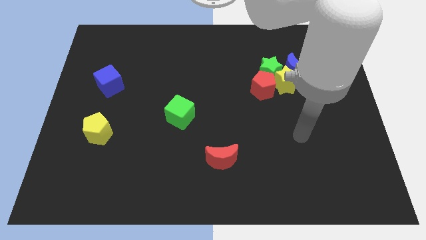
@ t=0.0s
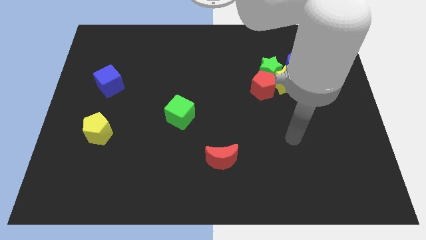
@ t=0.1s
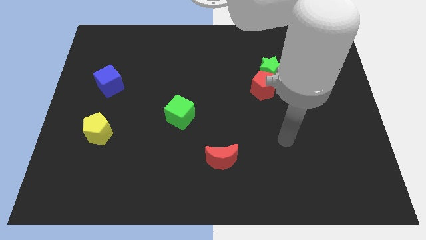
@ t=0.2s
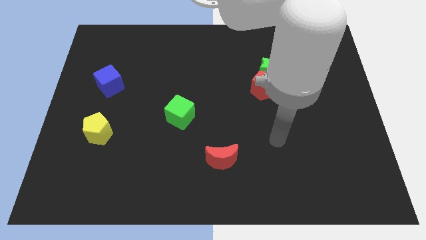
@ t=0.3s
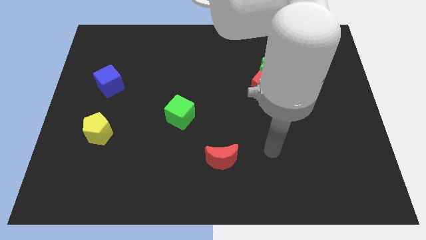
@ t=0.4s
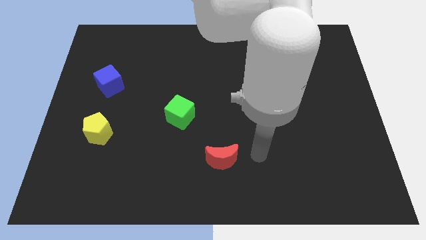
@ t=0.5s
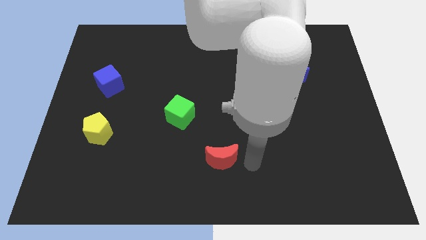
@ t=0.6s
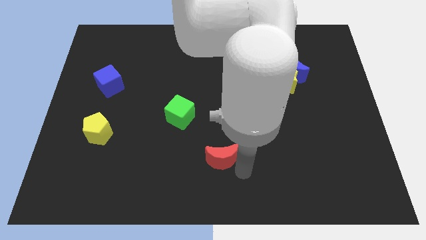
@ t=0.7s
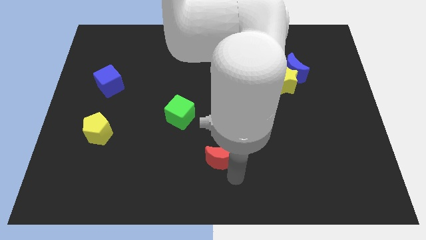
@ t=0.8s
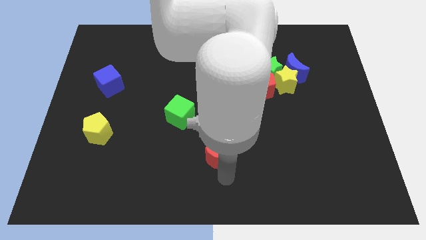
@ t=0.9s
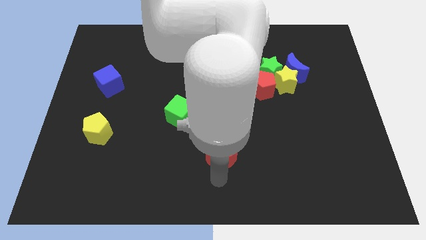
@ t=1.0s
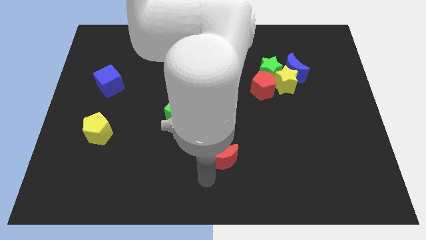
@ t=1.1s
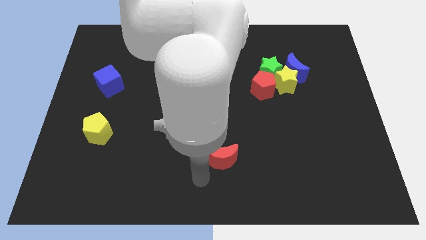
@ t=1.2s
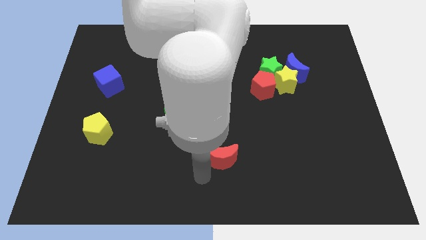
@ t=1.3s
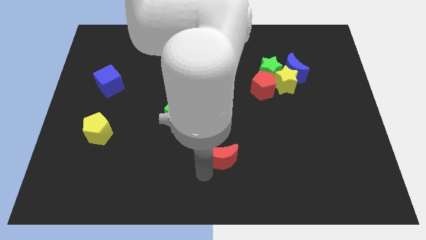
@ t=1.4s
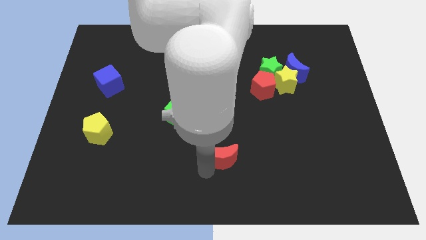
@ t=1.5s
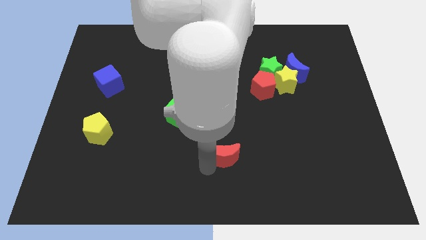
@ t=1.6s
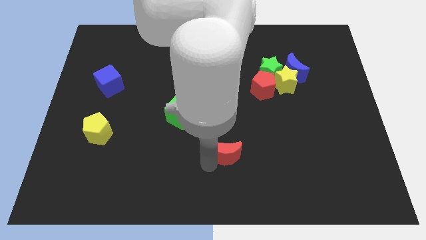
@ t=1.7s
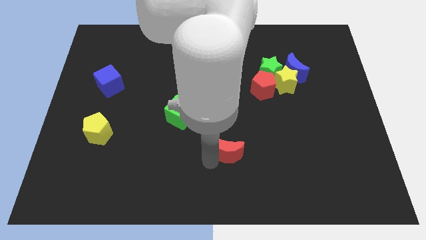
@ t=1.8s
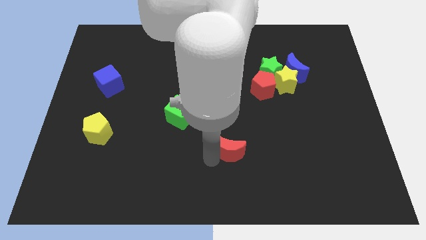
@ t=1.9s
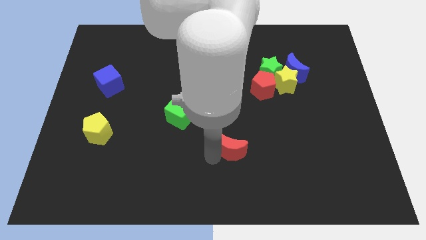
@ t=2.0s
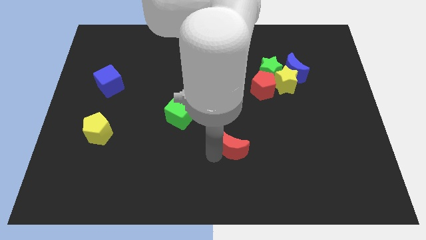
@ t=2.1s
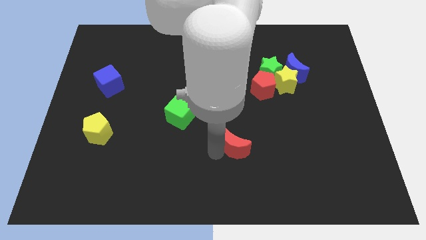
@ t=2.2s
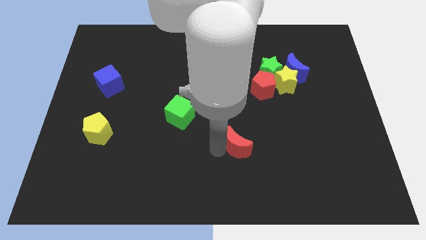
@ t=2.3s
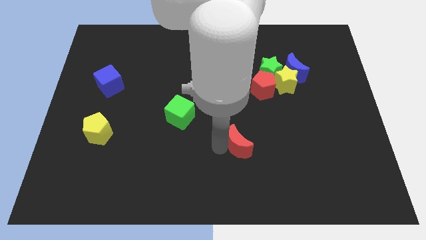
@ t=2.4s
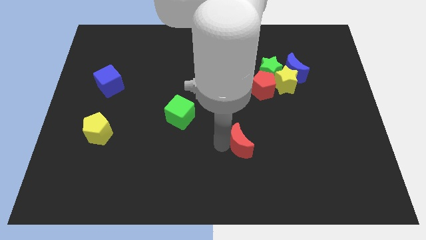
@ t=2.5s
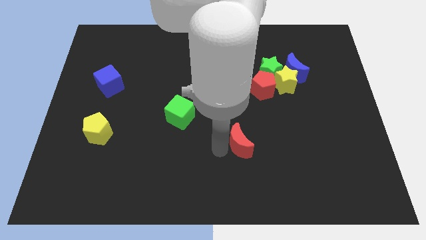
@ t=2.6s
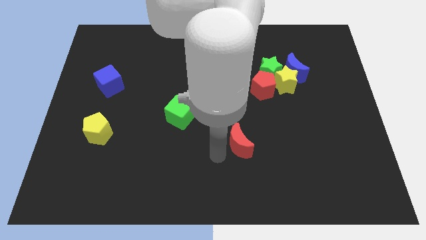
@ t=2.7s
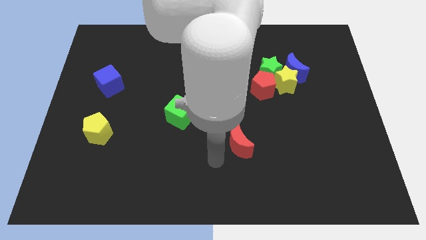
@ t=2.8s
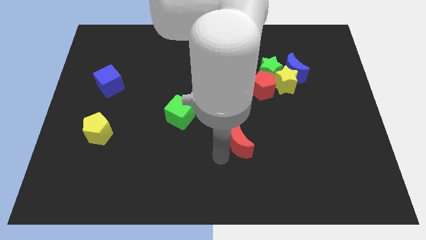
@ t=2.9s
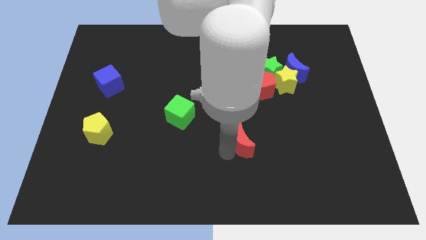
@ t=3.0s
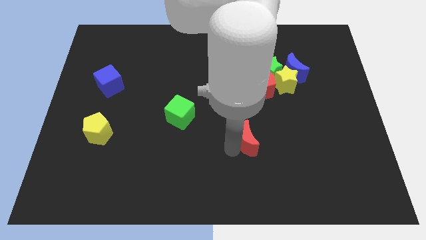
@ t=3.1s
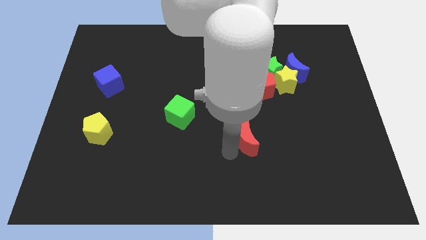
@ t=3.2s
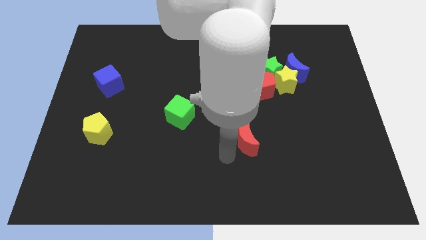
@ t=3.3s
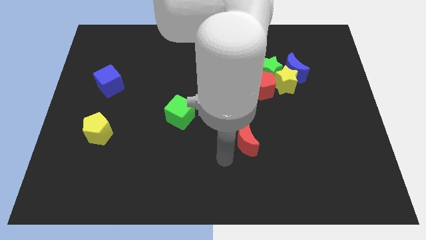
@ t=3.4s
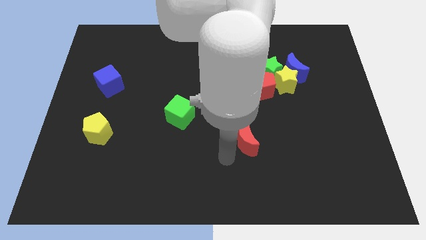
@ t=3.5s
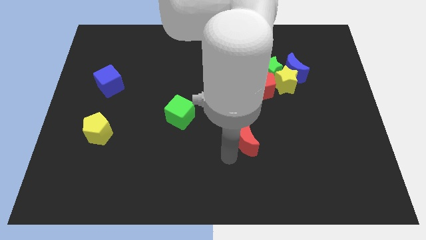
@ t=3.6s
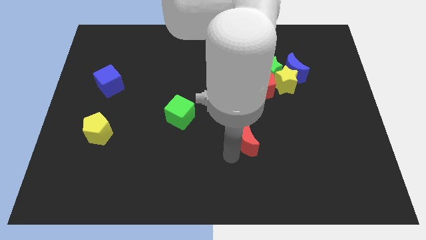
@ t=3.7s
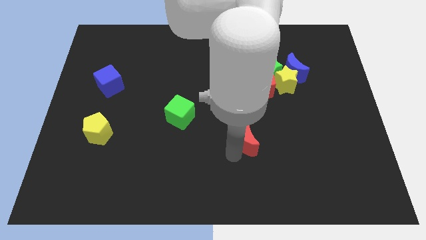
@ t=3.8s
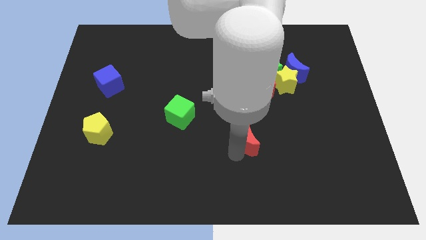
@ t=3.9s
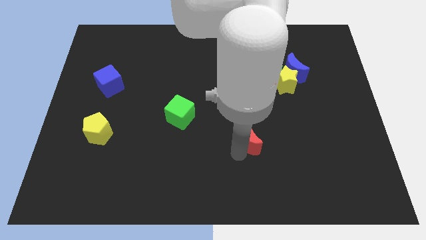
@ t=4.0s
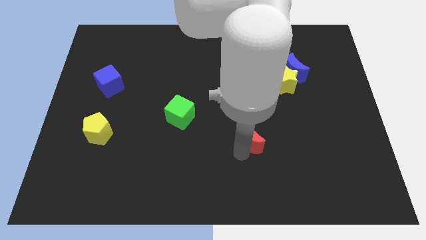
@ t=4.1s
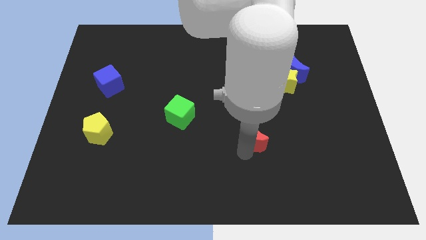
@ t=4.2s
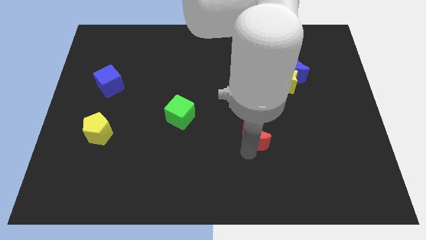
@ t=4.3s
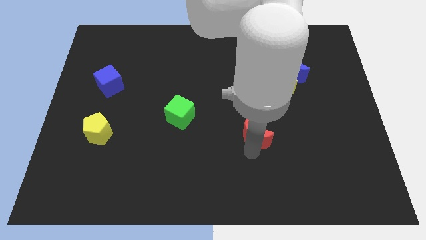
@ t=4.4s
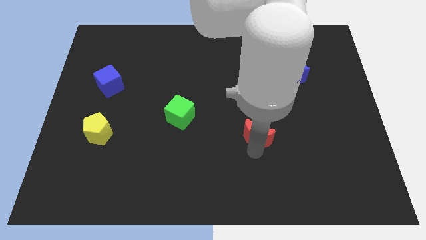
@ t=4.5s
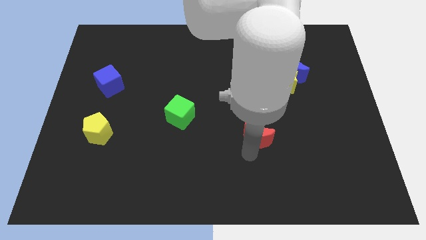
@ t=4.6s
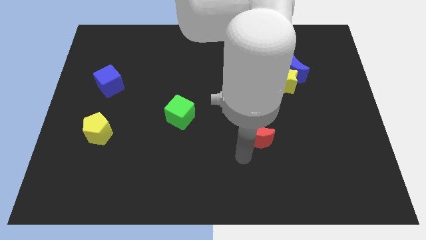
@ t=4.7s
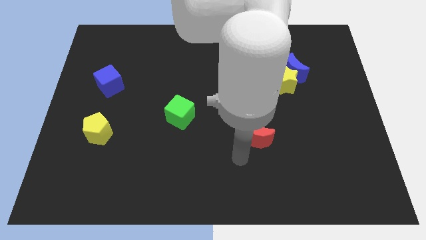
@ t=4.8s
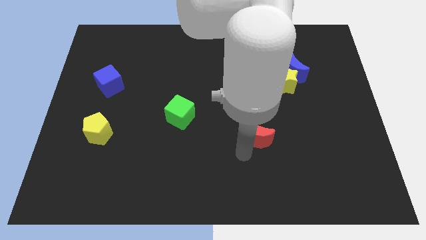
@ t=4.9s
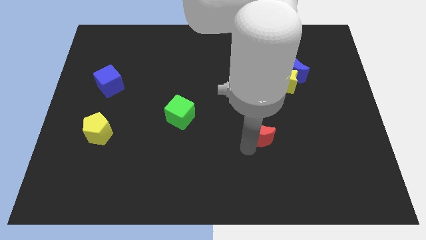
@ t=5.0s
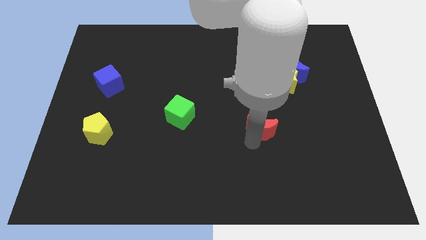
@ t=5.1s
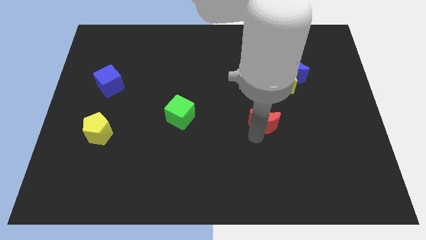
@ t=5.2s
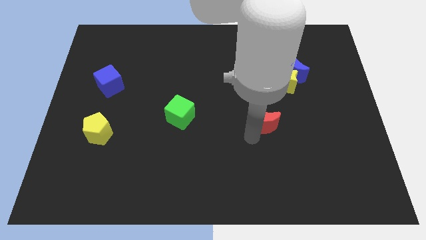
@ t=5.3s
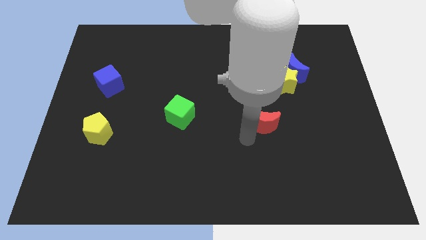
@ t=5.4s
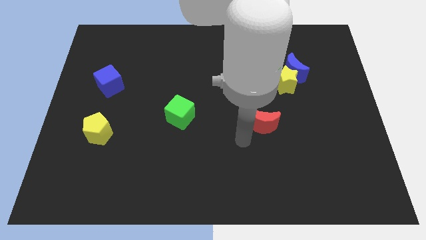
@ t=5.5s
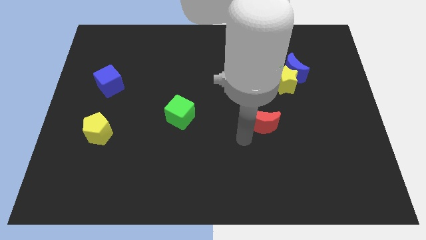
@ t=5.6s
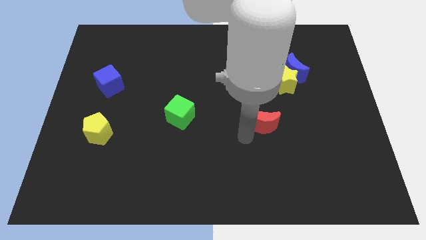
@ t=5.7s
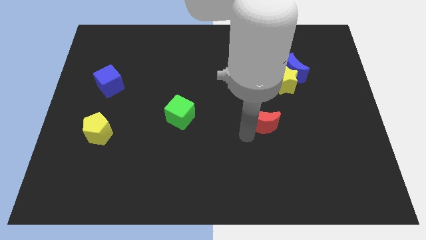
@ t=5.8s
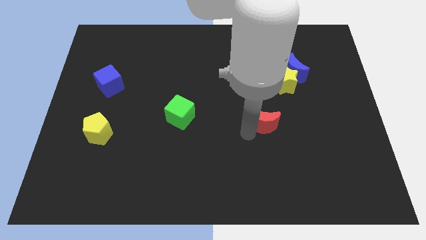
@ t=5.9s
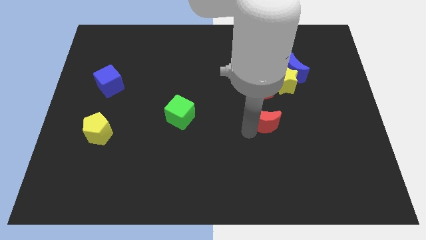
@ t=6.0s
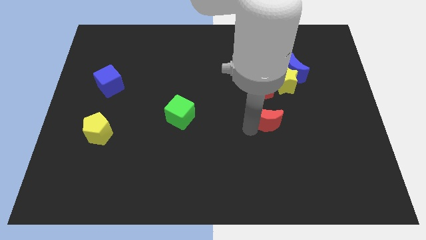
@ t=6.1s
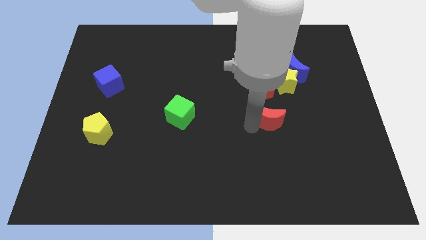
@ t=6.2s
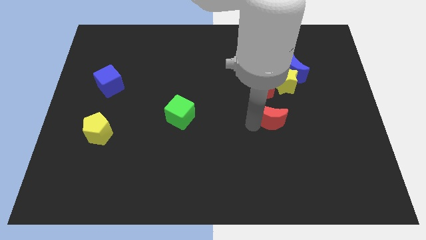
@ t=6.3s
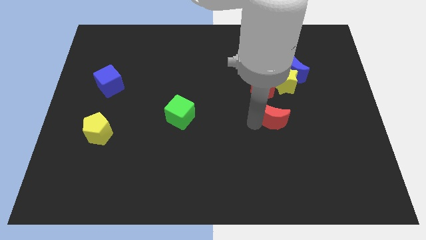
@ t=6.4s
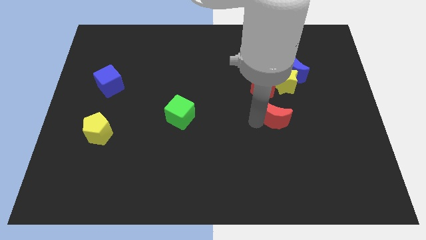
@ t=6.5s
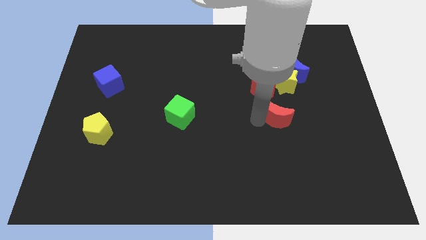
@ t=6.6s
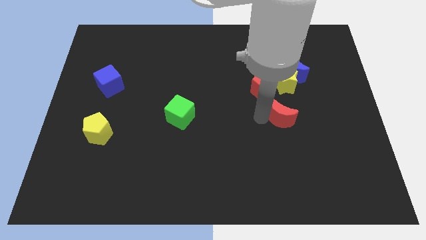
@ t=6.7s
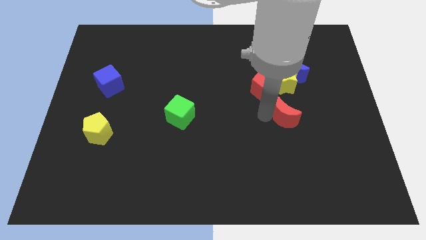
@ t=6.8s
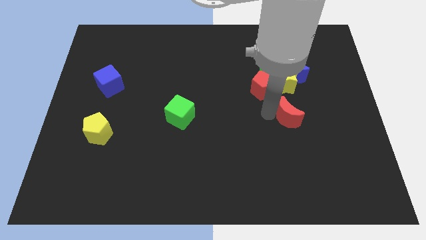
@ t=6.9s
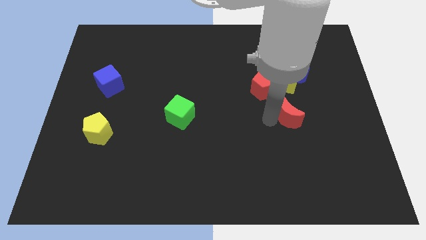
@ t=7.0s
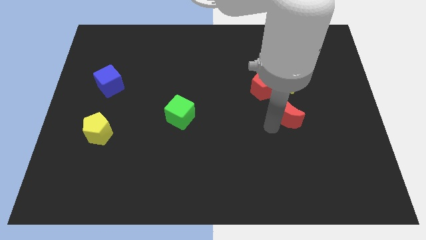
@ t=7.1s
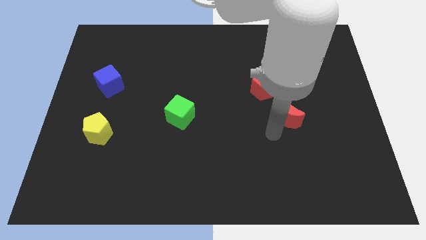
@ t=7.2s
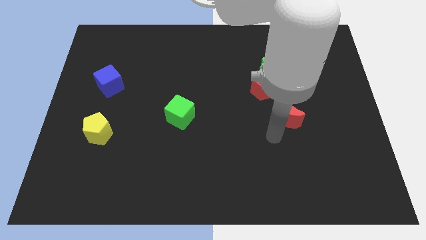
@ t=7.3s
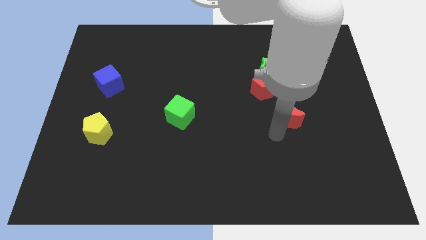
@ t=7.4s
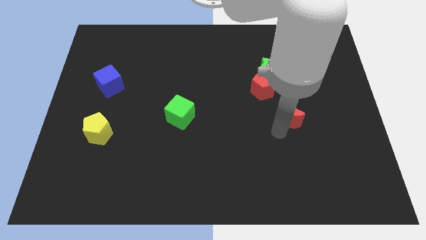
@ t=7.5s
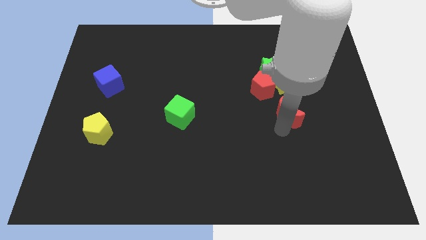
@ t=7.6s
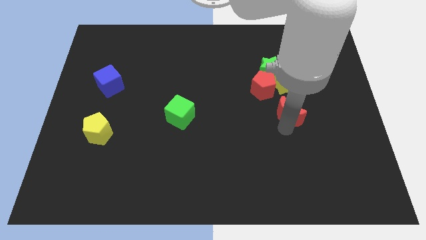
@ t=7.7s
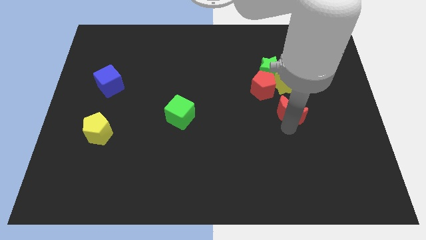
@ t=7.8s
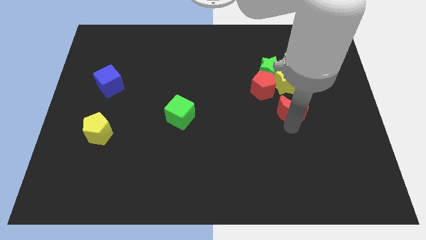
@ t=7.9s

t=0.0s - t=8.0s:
move the red moon up and right diagonally

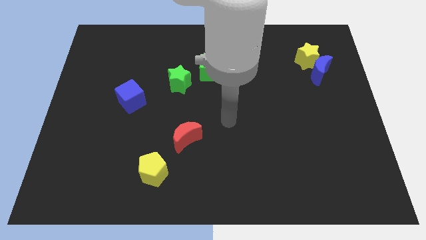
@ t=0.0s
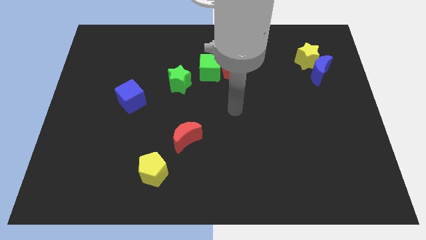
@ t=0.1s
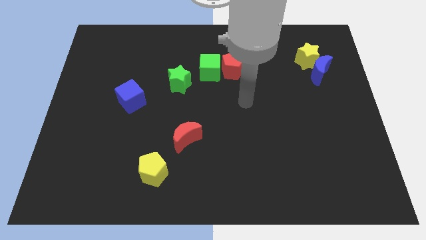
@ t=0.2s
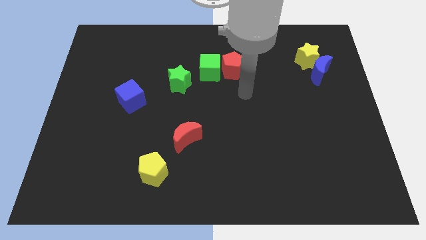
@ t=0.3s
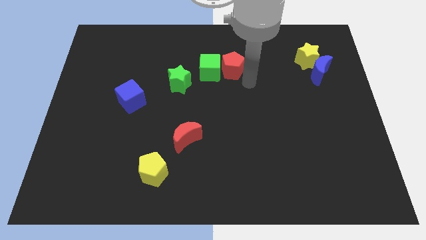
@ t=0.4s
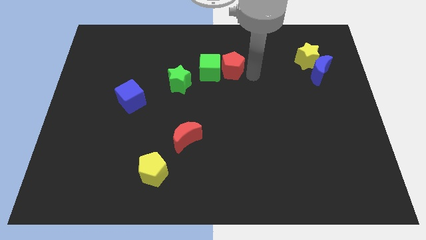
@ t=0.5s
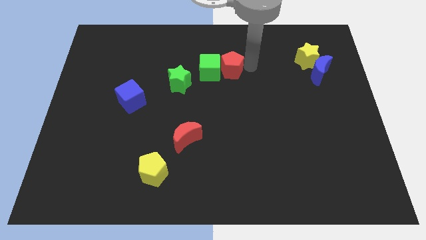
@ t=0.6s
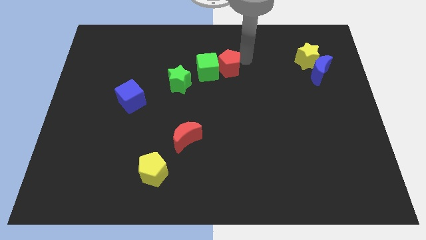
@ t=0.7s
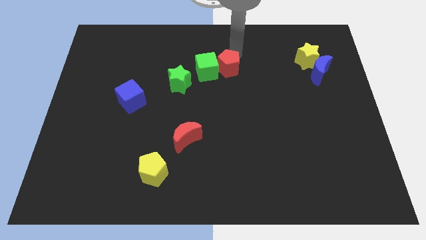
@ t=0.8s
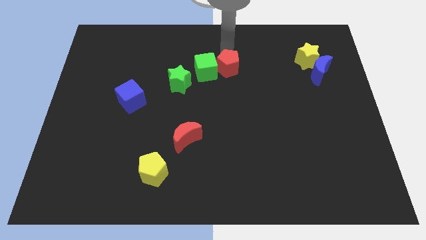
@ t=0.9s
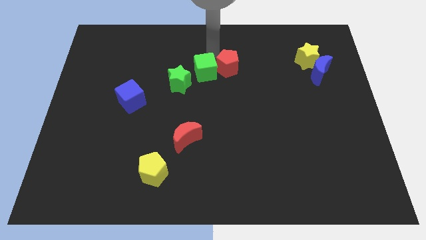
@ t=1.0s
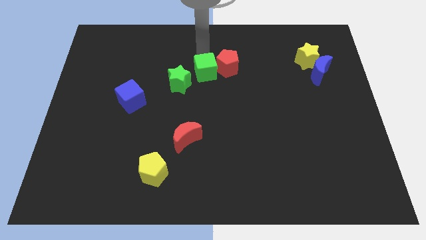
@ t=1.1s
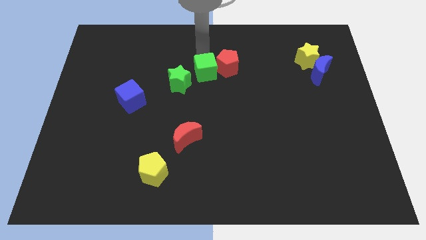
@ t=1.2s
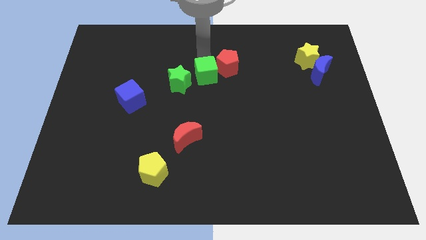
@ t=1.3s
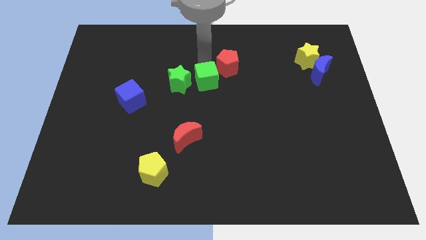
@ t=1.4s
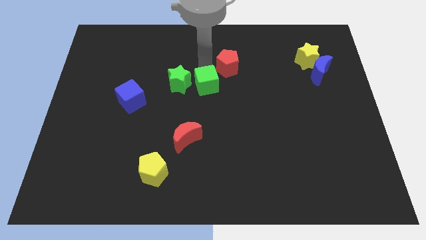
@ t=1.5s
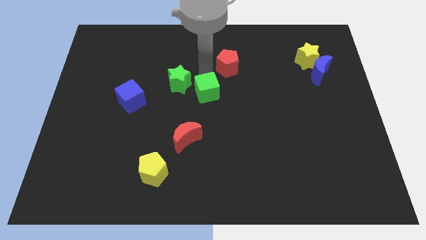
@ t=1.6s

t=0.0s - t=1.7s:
move the green cube a bit down
